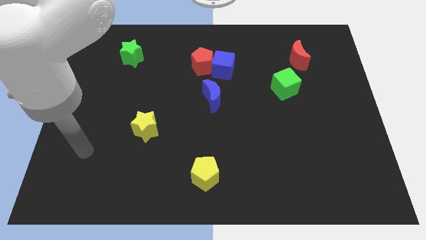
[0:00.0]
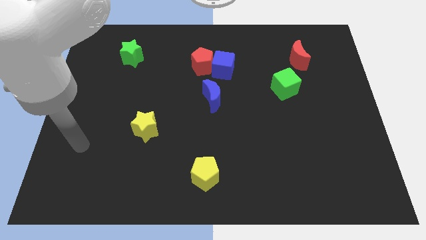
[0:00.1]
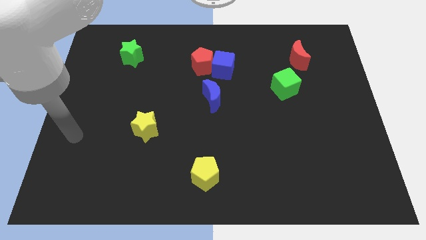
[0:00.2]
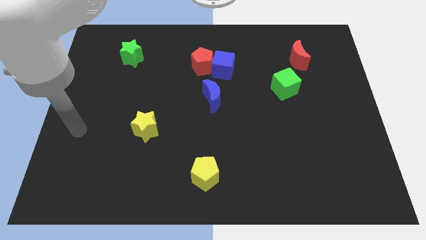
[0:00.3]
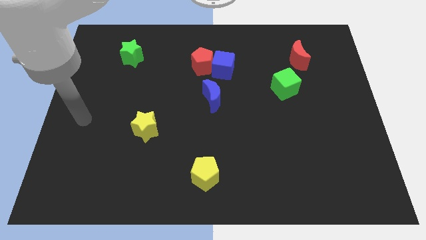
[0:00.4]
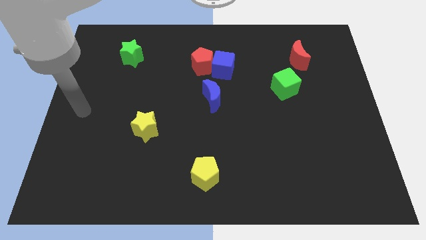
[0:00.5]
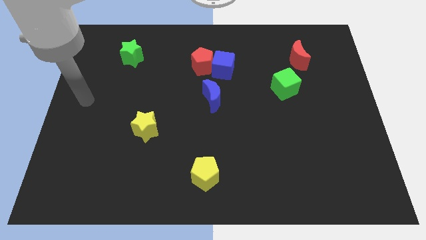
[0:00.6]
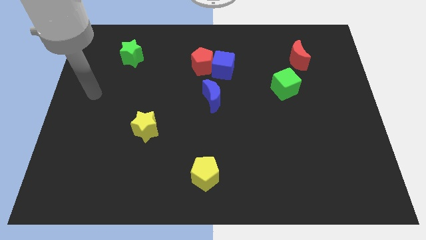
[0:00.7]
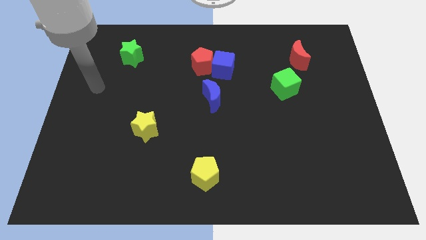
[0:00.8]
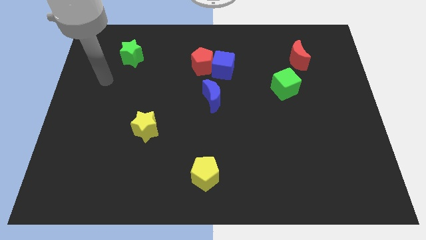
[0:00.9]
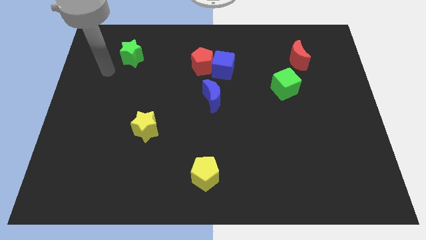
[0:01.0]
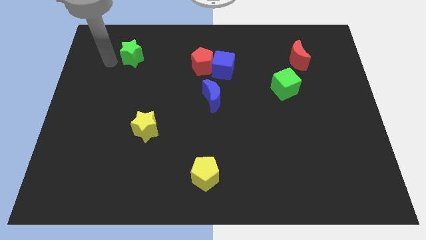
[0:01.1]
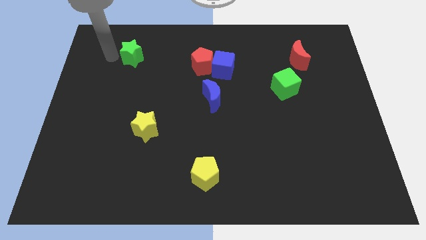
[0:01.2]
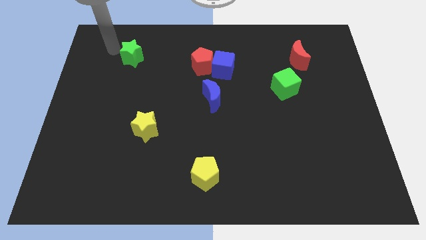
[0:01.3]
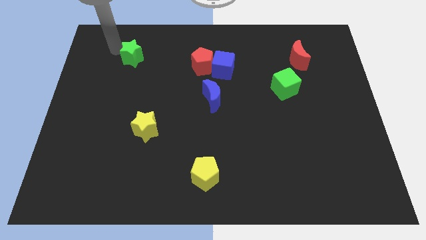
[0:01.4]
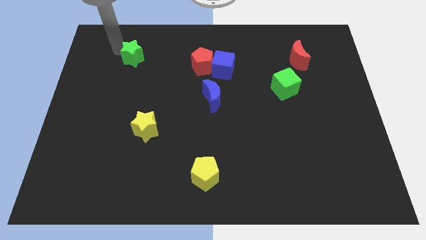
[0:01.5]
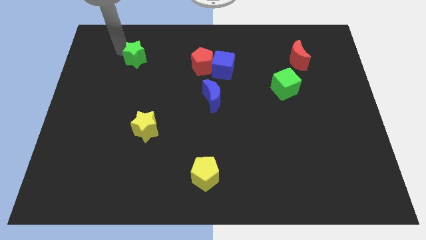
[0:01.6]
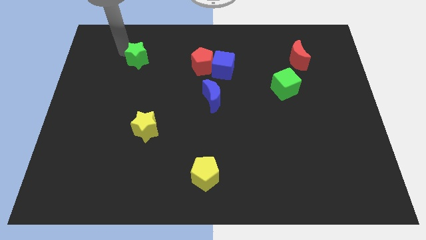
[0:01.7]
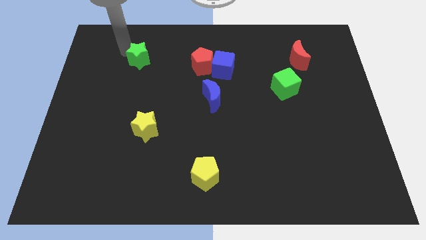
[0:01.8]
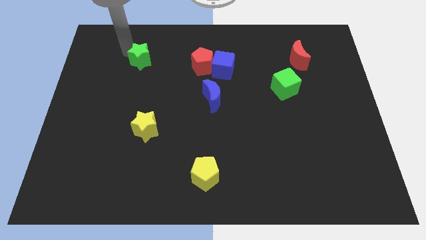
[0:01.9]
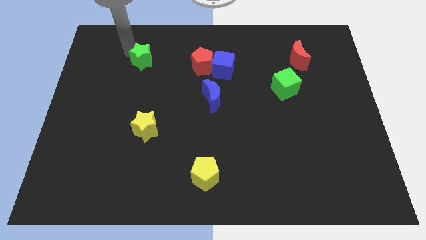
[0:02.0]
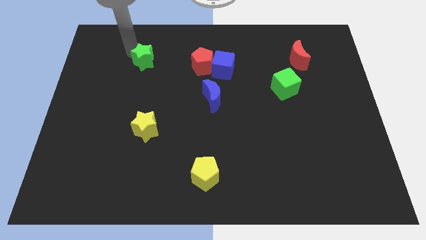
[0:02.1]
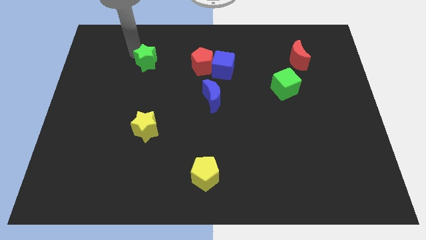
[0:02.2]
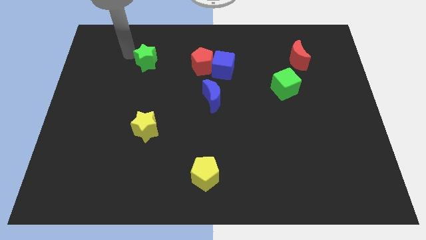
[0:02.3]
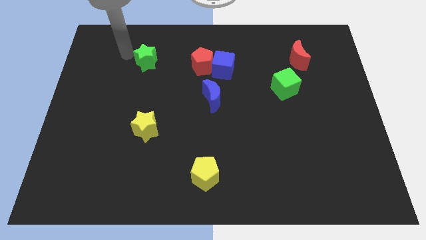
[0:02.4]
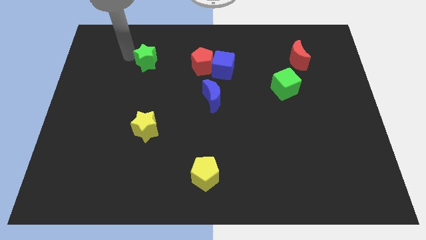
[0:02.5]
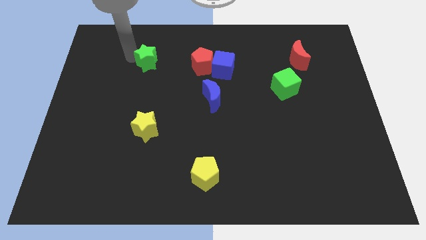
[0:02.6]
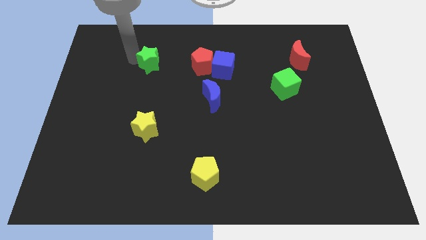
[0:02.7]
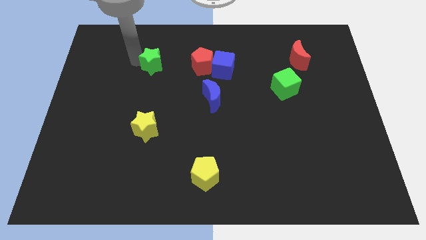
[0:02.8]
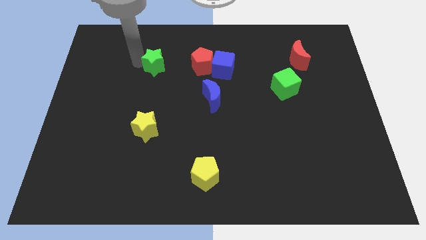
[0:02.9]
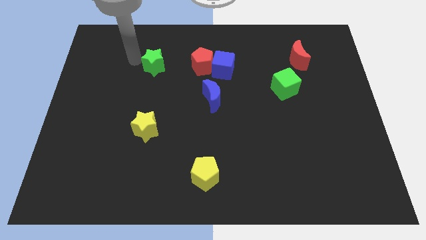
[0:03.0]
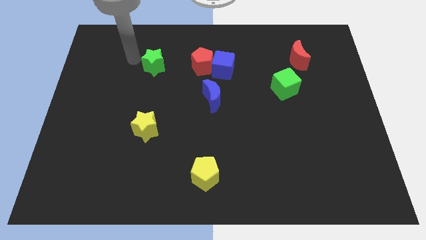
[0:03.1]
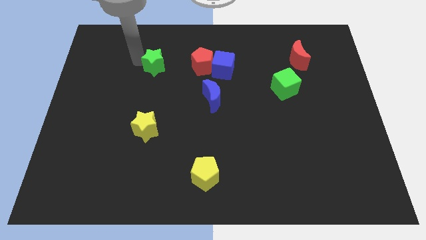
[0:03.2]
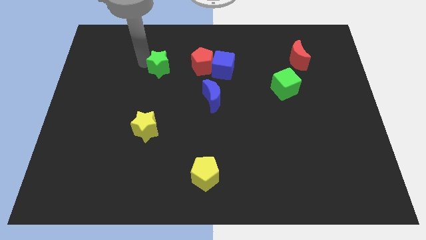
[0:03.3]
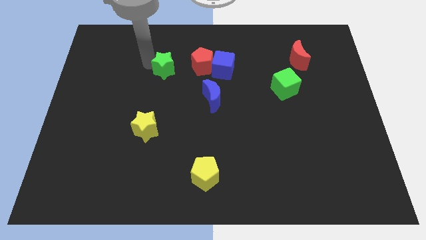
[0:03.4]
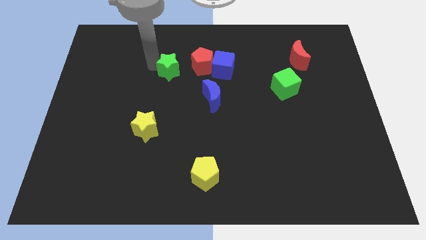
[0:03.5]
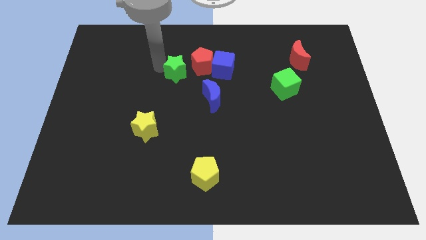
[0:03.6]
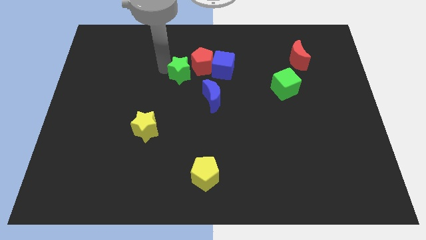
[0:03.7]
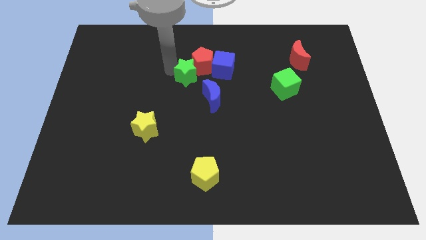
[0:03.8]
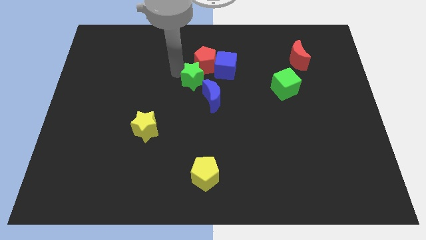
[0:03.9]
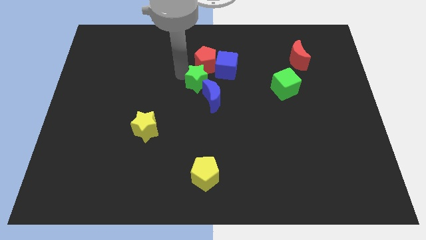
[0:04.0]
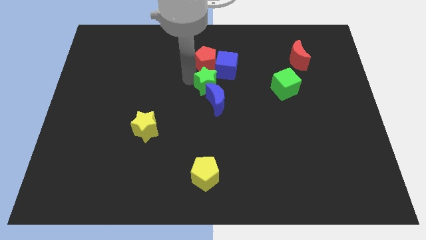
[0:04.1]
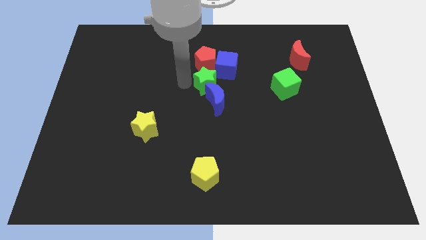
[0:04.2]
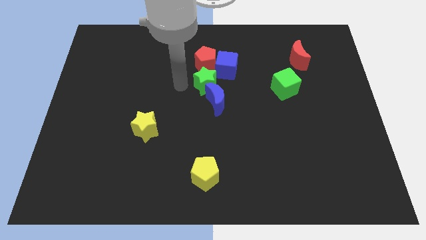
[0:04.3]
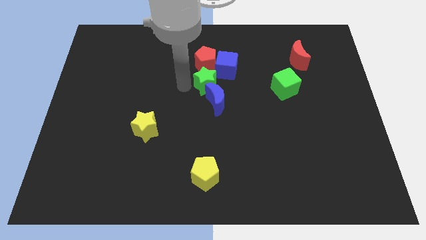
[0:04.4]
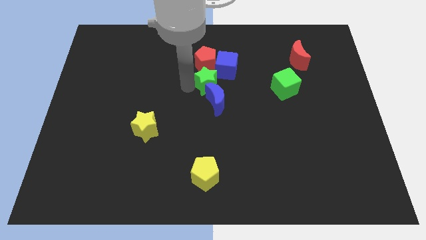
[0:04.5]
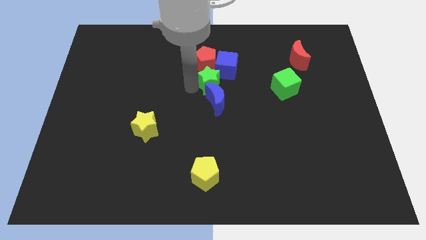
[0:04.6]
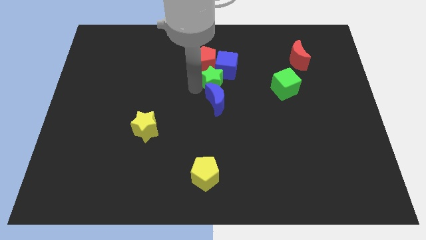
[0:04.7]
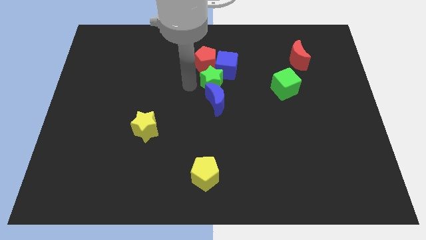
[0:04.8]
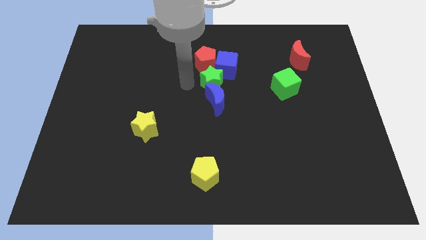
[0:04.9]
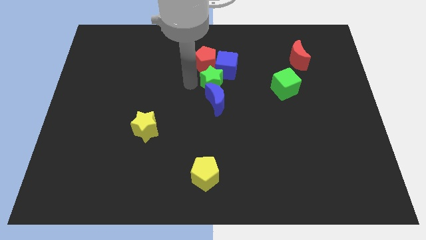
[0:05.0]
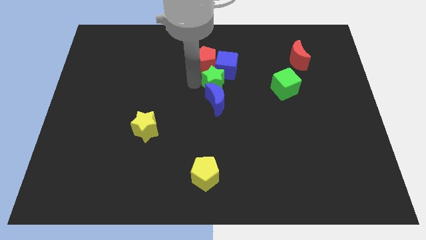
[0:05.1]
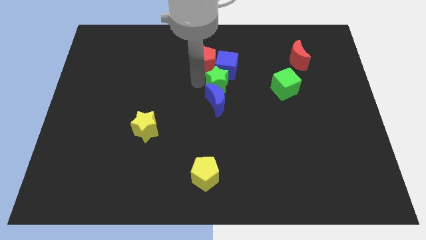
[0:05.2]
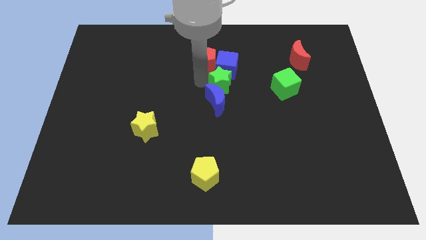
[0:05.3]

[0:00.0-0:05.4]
move the green star to the bottom right of the blue cube

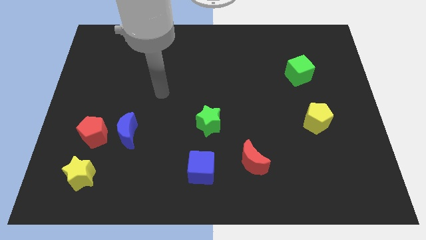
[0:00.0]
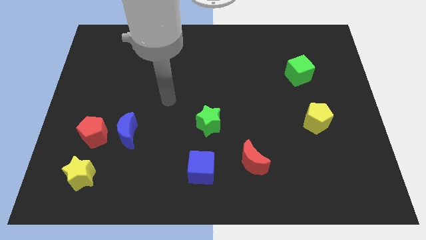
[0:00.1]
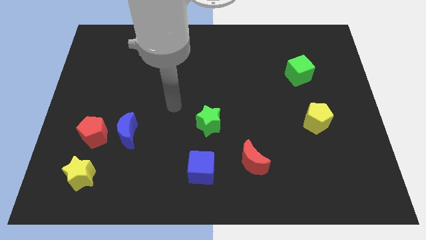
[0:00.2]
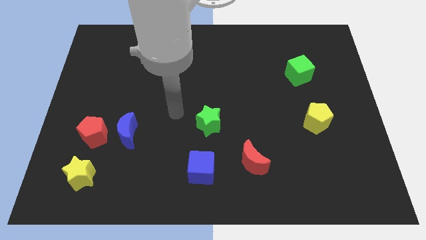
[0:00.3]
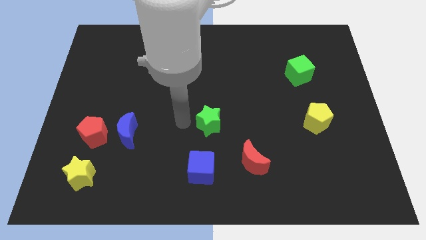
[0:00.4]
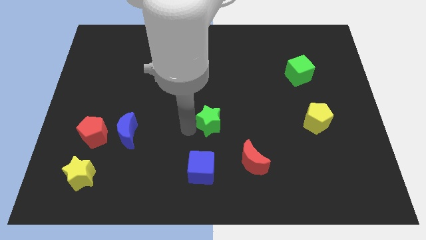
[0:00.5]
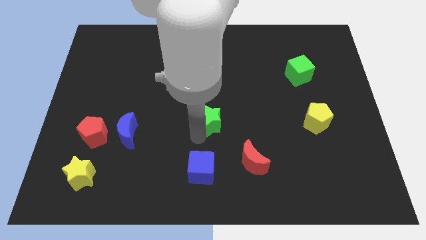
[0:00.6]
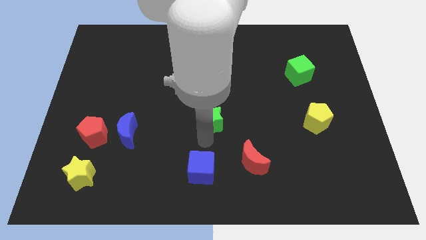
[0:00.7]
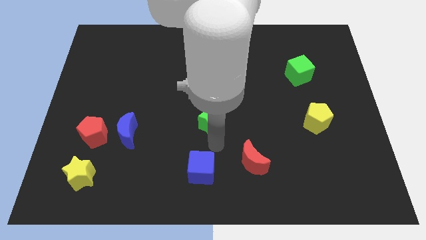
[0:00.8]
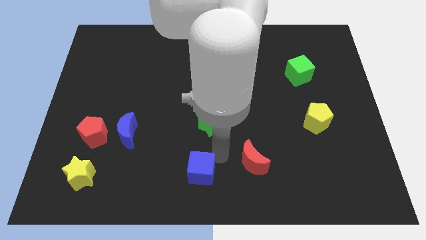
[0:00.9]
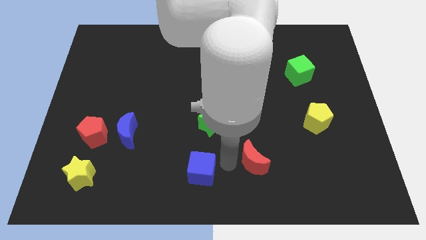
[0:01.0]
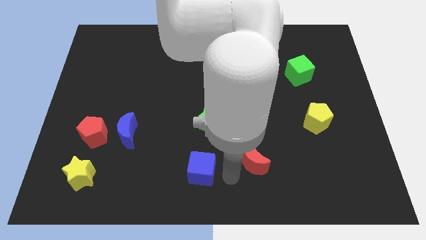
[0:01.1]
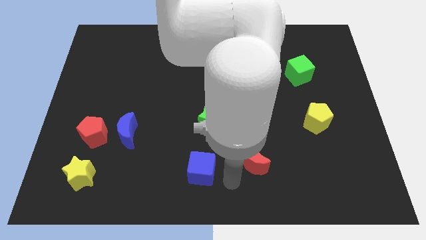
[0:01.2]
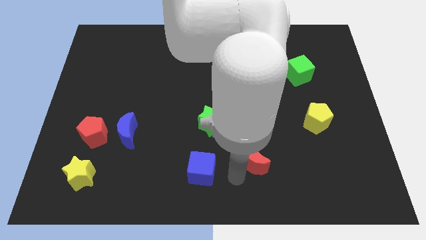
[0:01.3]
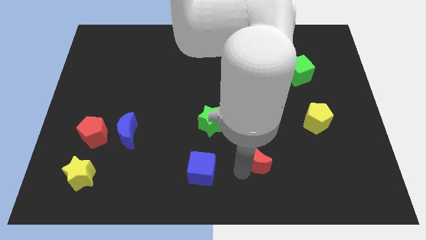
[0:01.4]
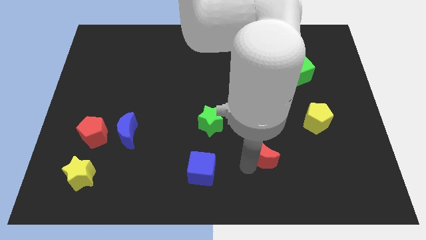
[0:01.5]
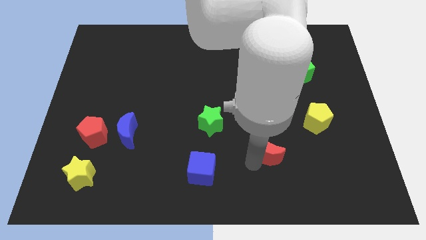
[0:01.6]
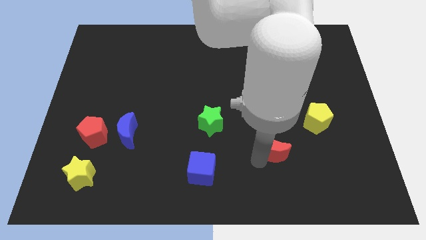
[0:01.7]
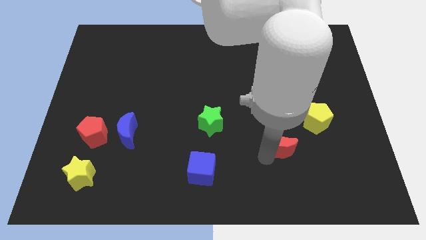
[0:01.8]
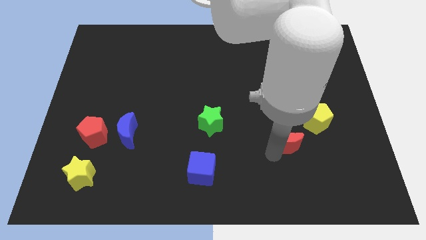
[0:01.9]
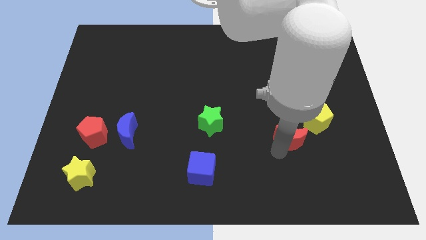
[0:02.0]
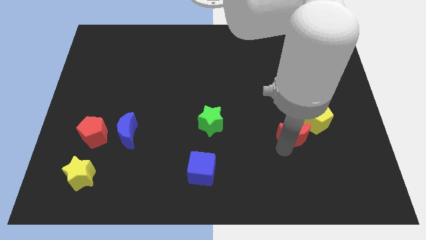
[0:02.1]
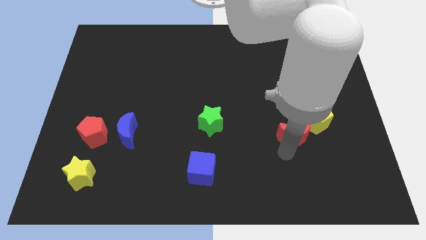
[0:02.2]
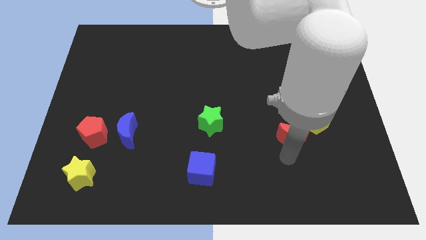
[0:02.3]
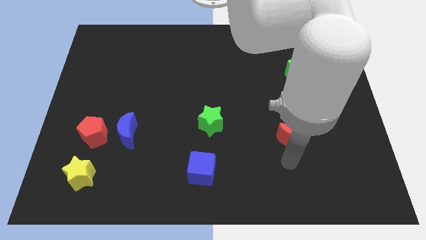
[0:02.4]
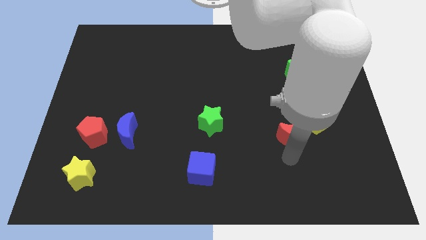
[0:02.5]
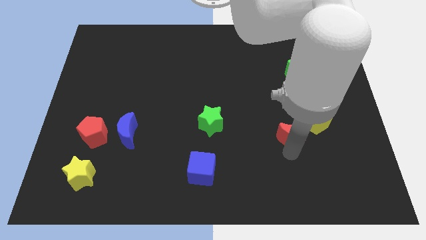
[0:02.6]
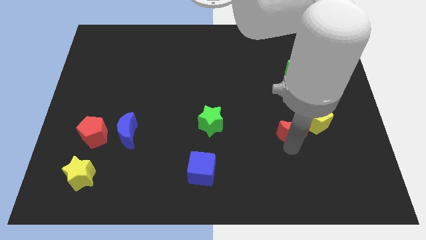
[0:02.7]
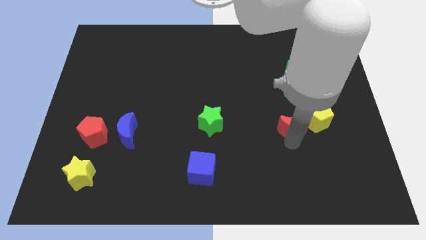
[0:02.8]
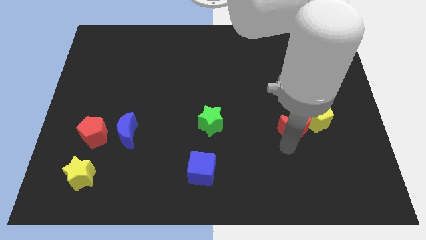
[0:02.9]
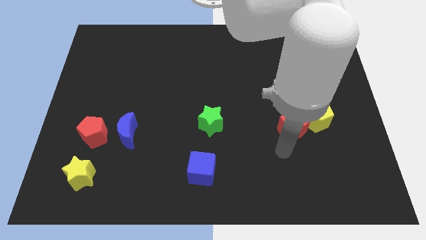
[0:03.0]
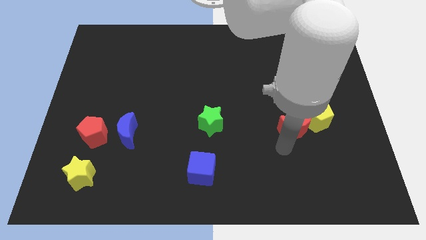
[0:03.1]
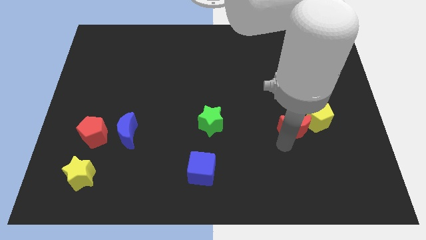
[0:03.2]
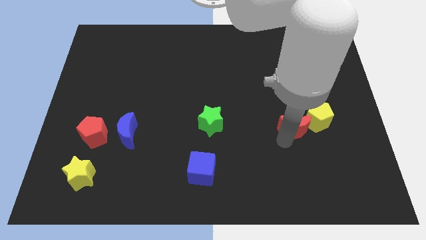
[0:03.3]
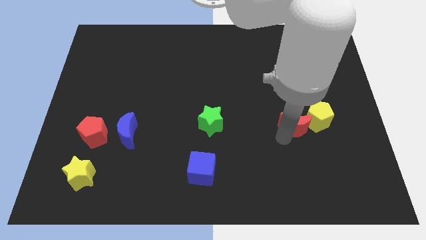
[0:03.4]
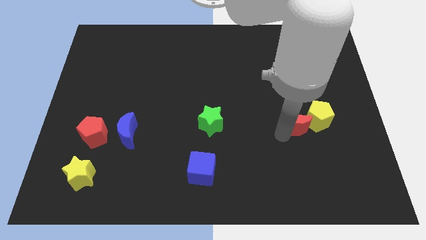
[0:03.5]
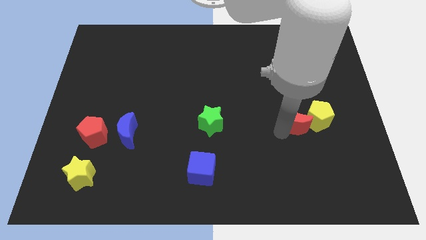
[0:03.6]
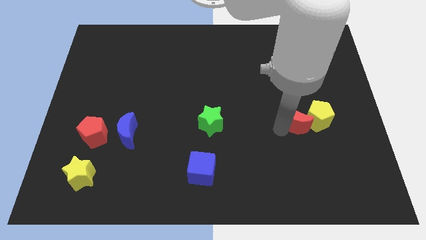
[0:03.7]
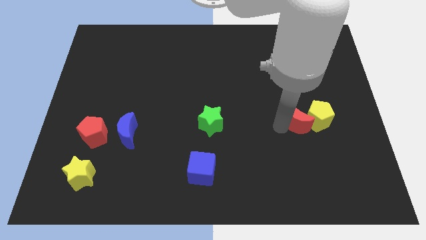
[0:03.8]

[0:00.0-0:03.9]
move the red moon to the bottom side of the green cube
